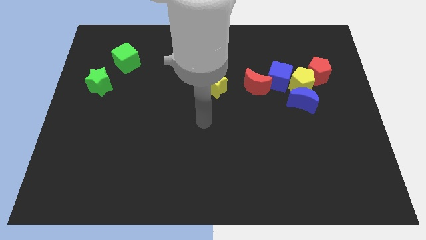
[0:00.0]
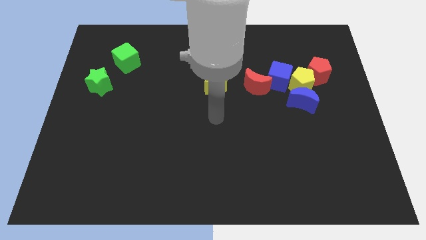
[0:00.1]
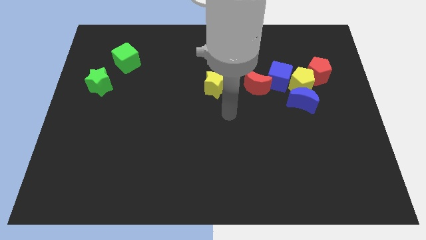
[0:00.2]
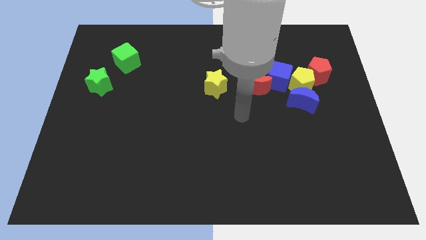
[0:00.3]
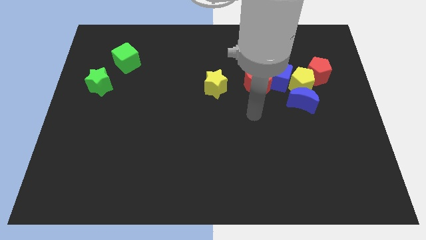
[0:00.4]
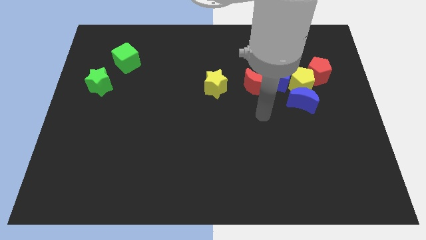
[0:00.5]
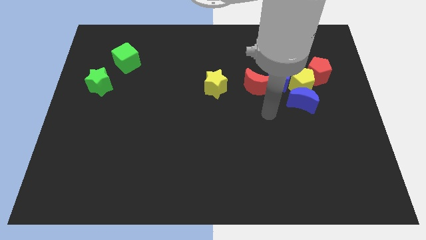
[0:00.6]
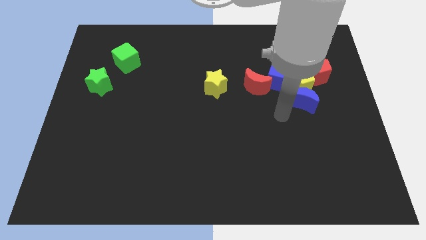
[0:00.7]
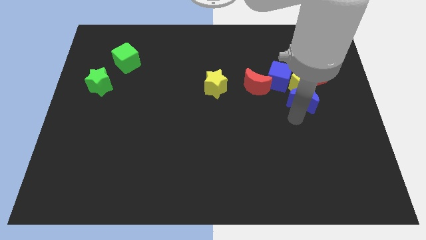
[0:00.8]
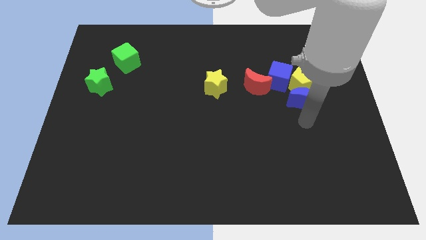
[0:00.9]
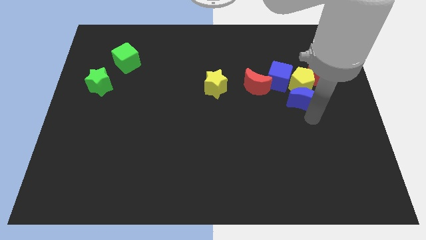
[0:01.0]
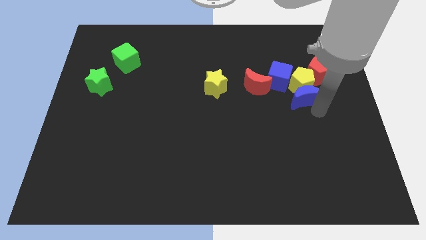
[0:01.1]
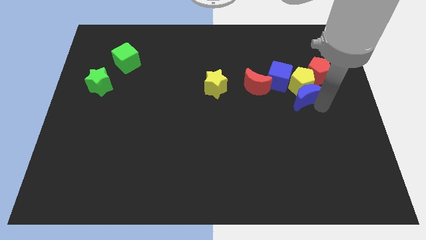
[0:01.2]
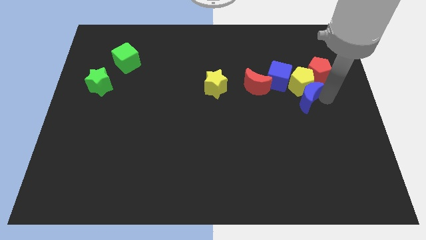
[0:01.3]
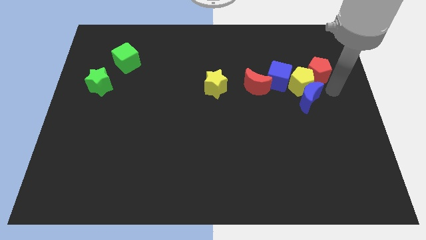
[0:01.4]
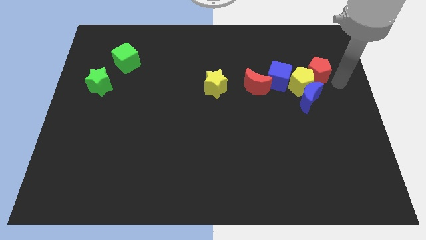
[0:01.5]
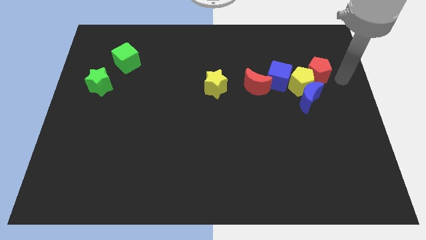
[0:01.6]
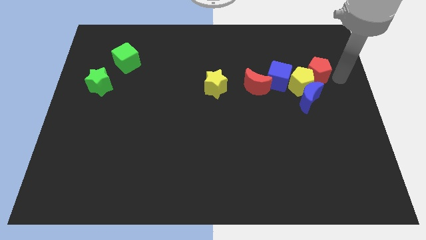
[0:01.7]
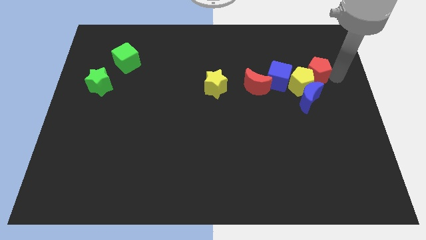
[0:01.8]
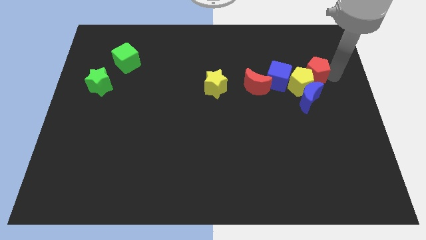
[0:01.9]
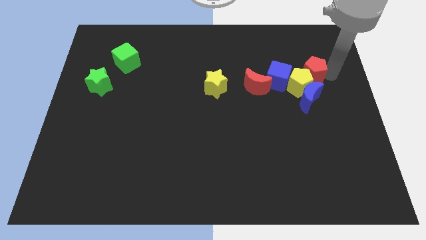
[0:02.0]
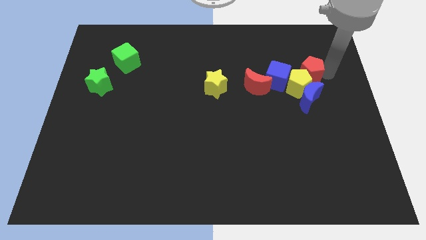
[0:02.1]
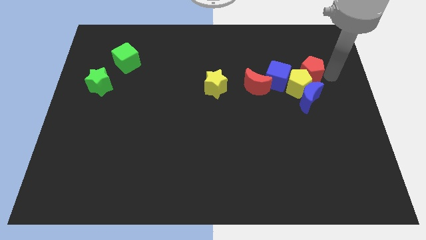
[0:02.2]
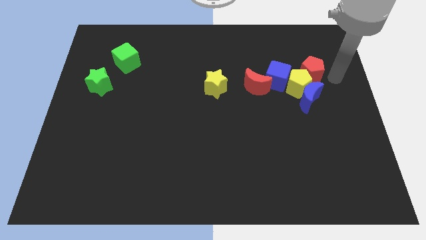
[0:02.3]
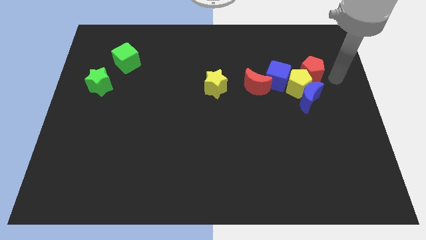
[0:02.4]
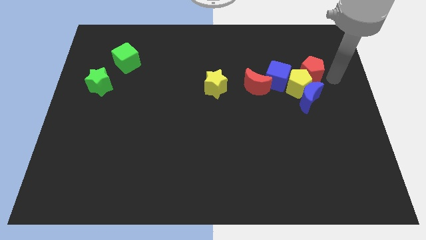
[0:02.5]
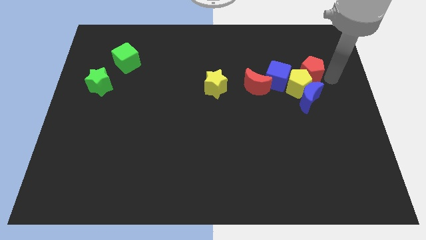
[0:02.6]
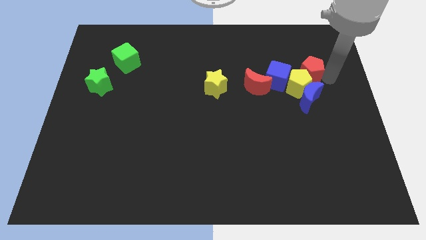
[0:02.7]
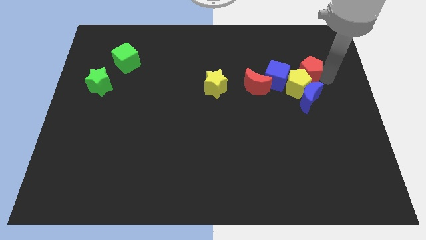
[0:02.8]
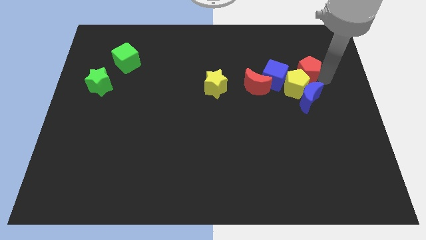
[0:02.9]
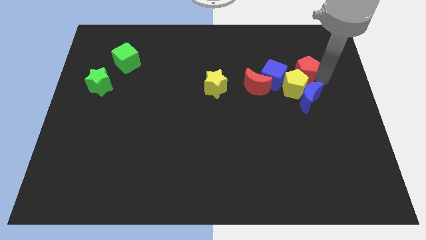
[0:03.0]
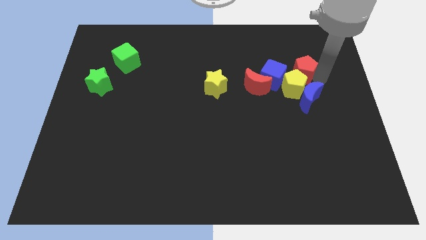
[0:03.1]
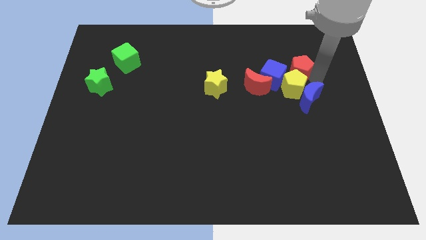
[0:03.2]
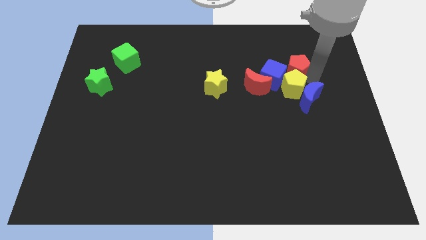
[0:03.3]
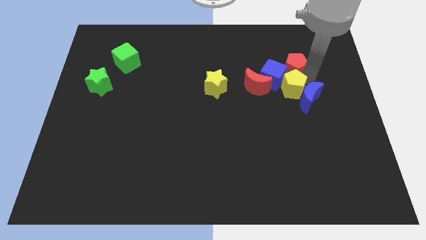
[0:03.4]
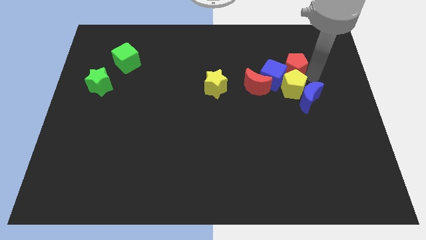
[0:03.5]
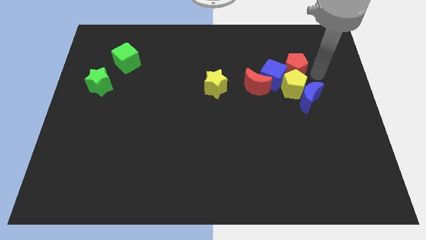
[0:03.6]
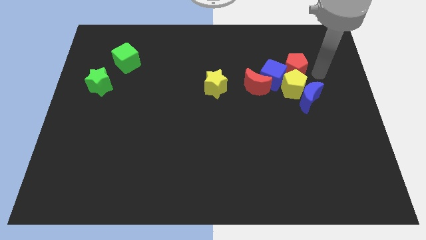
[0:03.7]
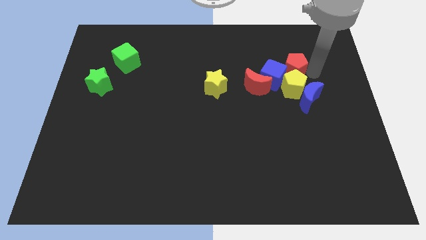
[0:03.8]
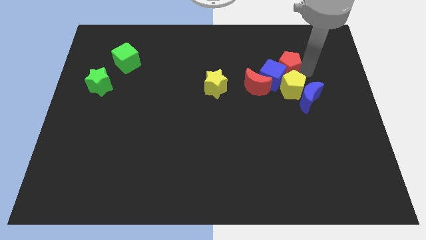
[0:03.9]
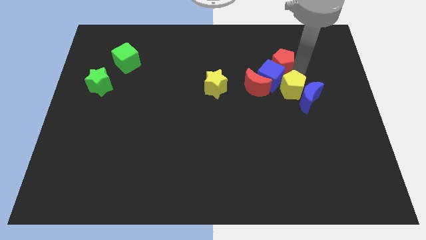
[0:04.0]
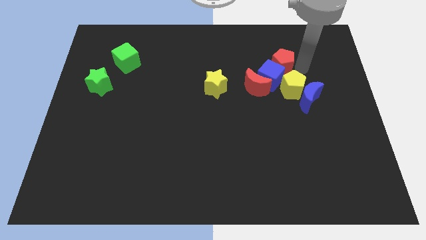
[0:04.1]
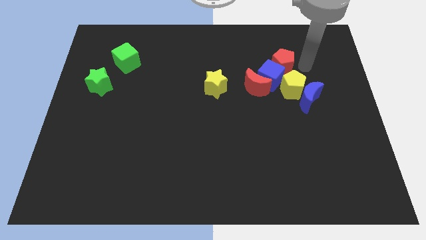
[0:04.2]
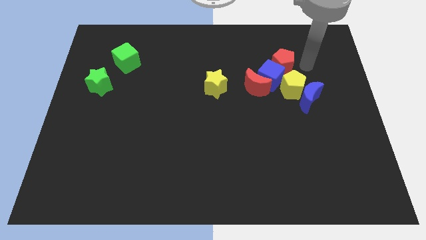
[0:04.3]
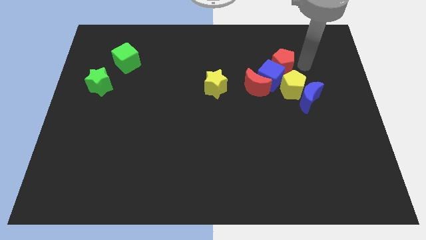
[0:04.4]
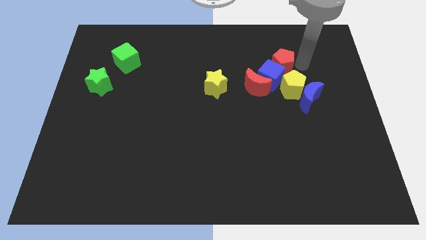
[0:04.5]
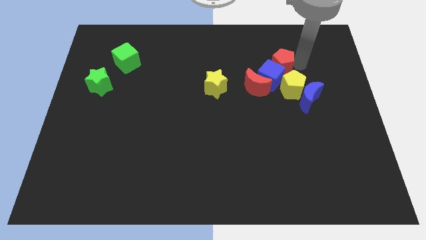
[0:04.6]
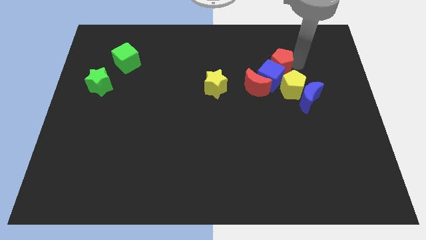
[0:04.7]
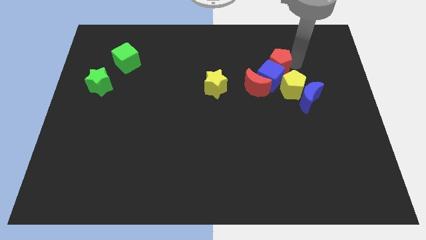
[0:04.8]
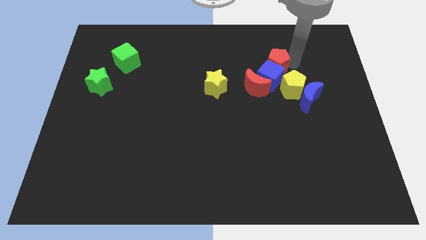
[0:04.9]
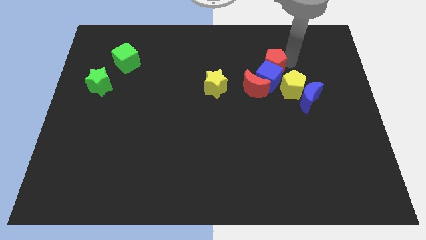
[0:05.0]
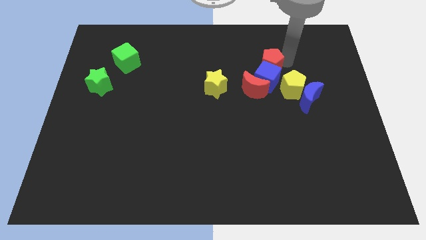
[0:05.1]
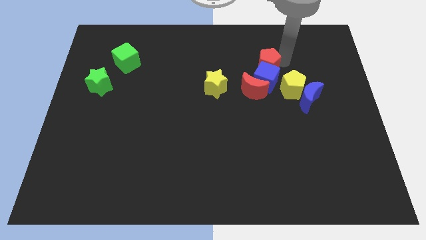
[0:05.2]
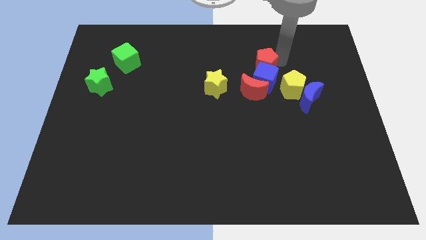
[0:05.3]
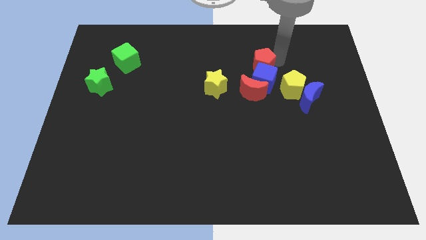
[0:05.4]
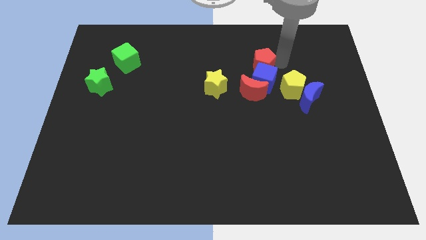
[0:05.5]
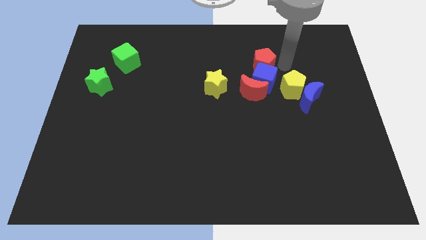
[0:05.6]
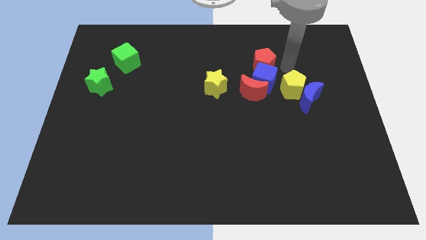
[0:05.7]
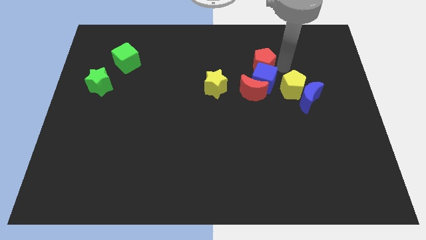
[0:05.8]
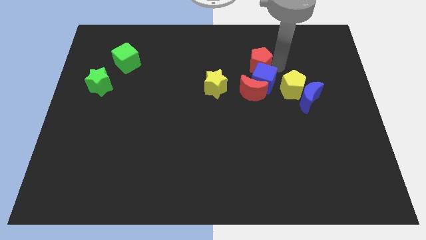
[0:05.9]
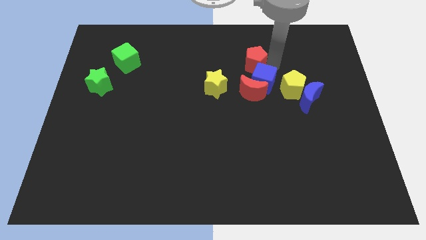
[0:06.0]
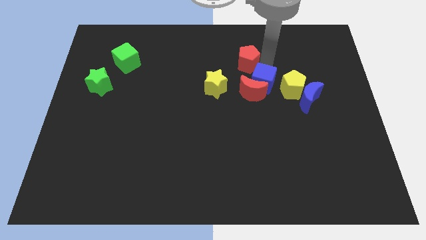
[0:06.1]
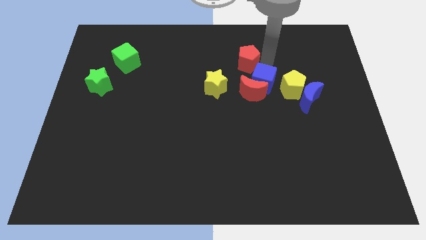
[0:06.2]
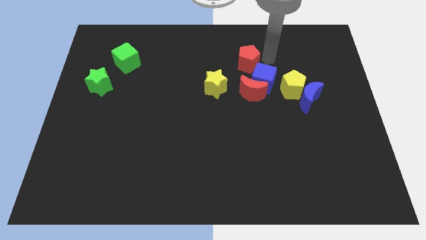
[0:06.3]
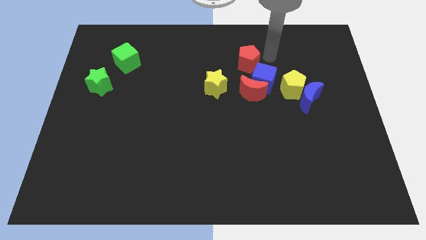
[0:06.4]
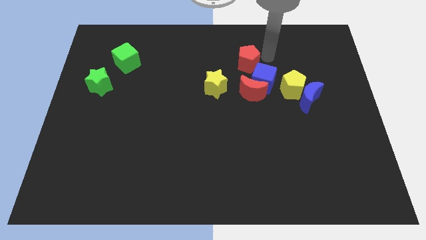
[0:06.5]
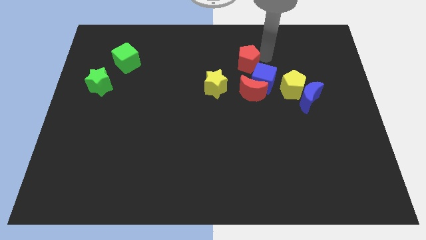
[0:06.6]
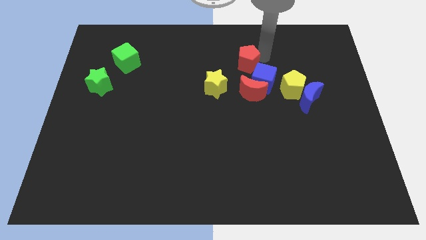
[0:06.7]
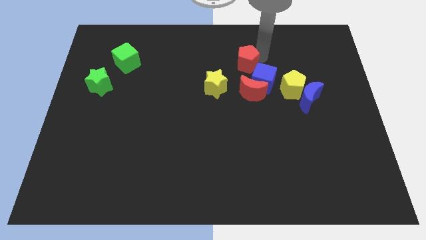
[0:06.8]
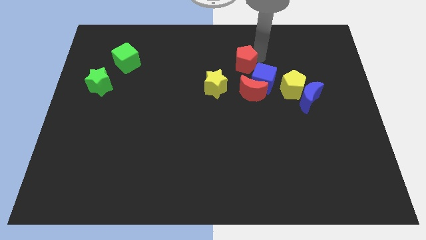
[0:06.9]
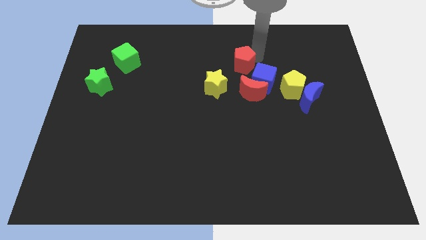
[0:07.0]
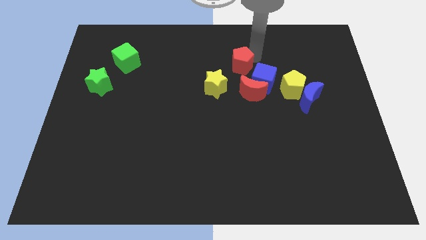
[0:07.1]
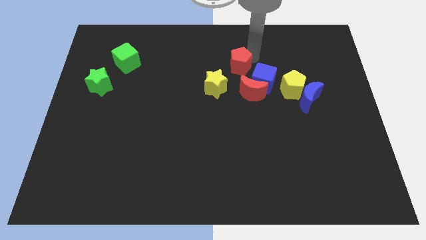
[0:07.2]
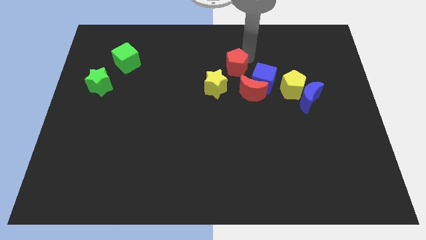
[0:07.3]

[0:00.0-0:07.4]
slide the red pentagon to the left

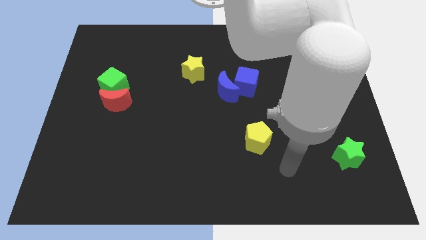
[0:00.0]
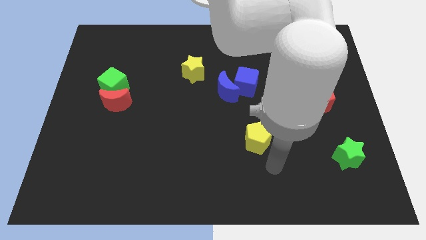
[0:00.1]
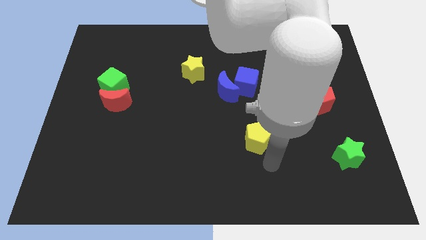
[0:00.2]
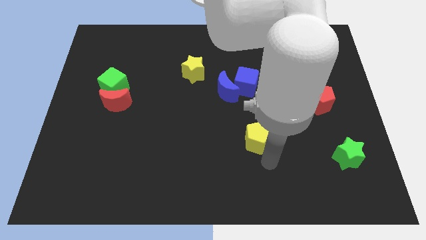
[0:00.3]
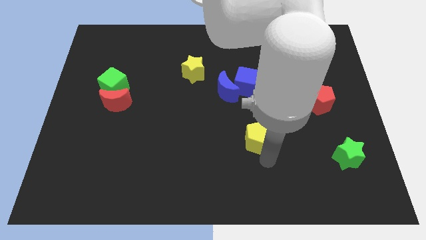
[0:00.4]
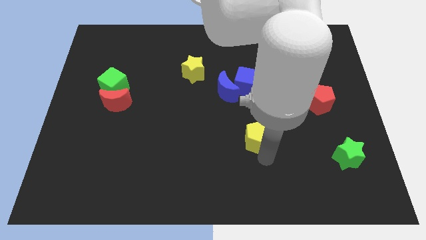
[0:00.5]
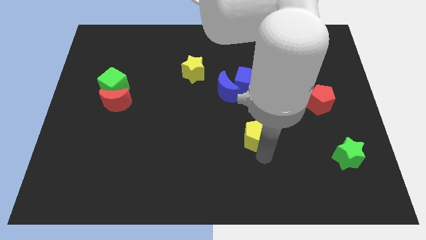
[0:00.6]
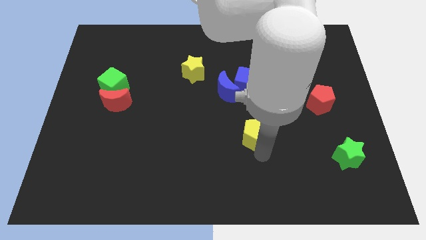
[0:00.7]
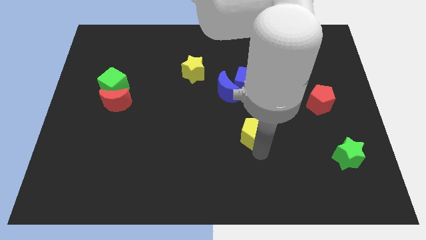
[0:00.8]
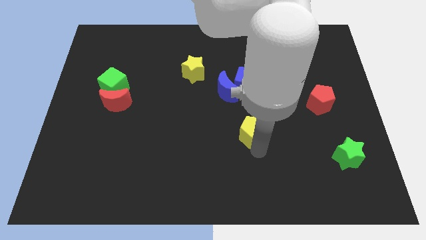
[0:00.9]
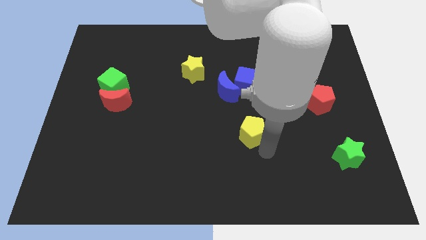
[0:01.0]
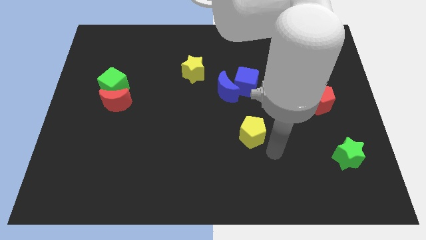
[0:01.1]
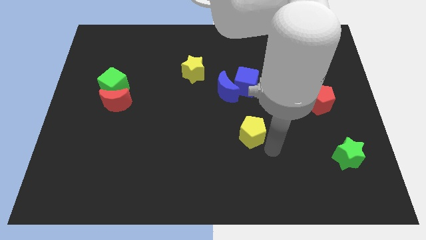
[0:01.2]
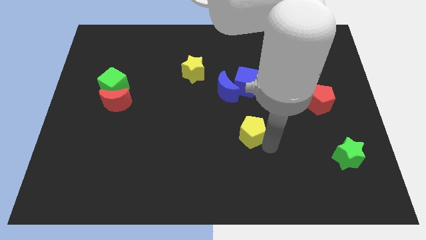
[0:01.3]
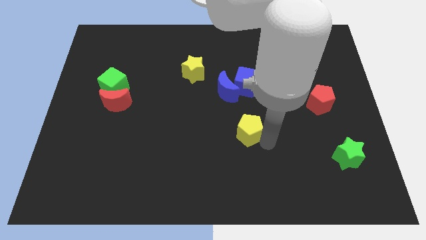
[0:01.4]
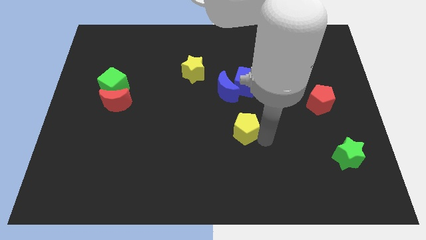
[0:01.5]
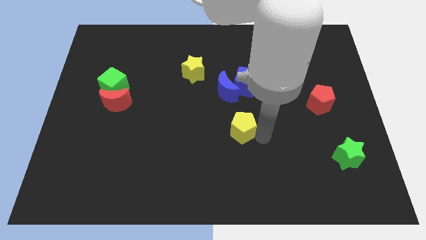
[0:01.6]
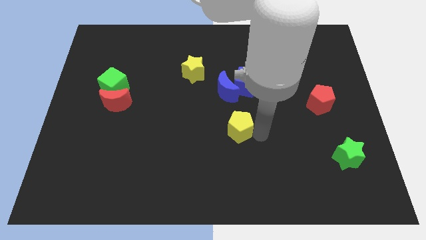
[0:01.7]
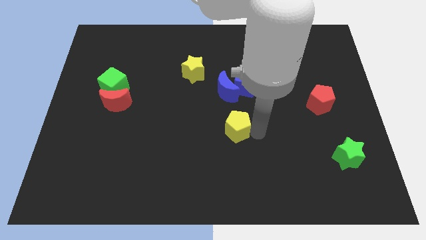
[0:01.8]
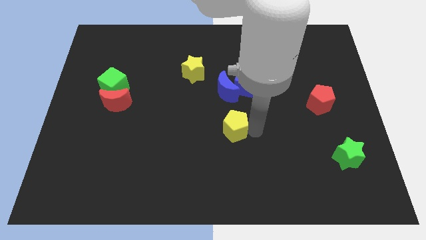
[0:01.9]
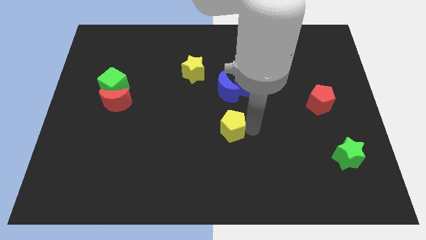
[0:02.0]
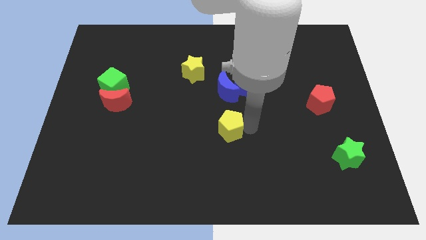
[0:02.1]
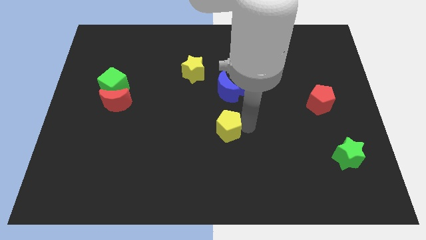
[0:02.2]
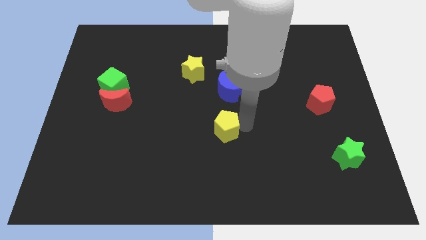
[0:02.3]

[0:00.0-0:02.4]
move the yellow pentagon a little bit upwards and then to the left
